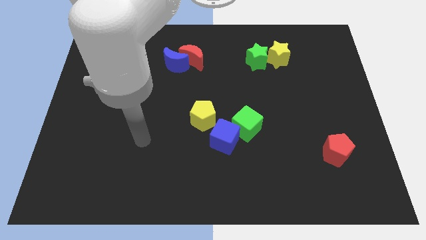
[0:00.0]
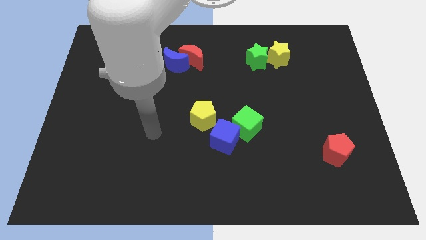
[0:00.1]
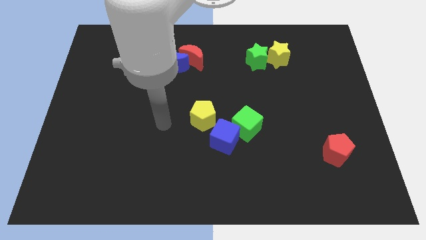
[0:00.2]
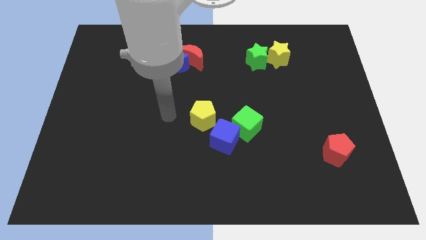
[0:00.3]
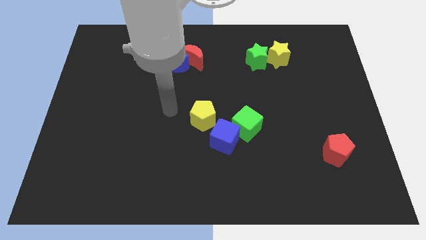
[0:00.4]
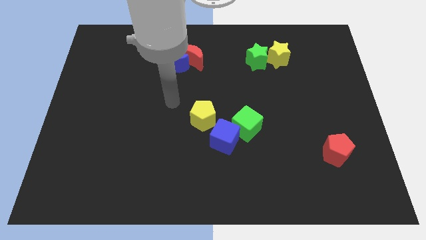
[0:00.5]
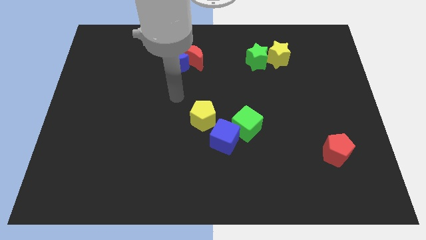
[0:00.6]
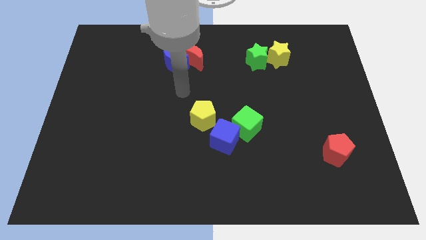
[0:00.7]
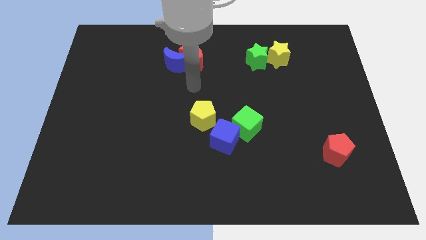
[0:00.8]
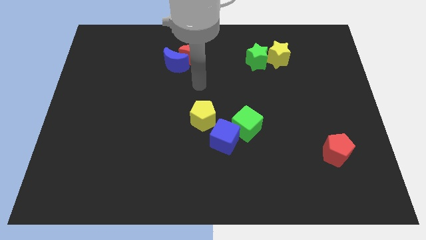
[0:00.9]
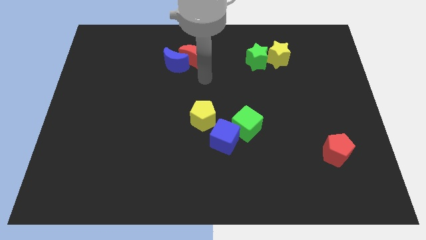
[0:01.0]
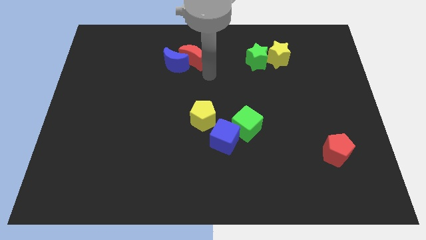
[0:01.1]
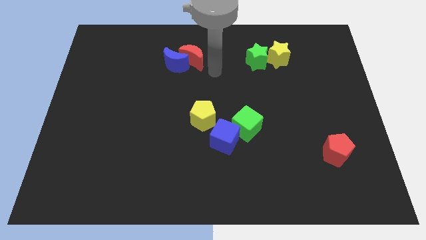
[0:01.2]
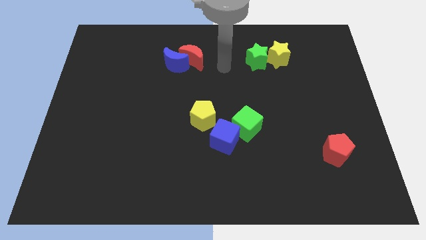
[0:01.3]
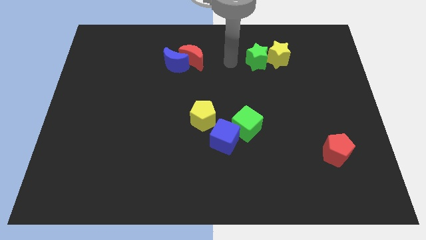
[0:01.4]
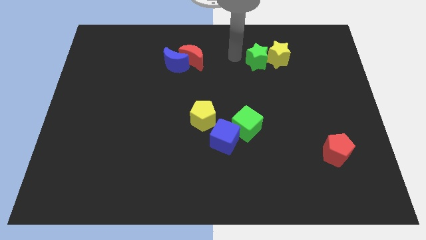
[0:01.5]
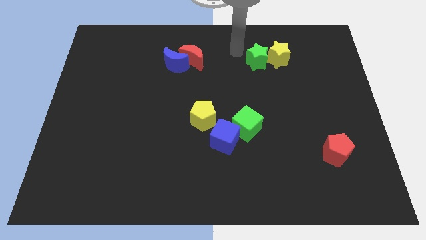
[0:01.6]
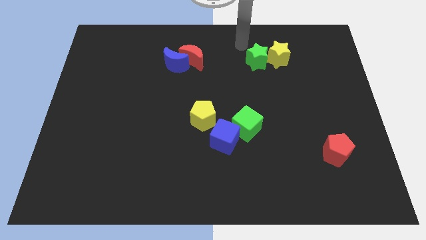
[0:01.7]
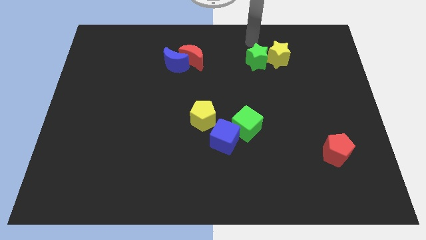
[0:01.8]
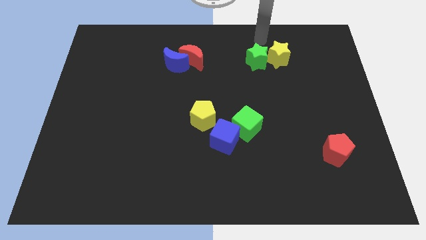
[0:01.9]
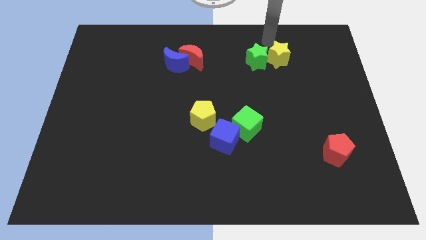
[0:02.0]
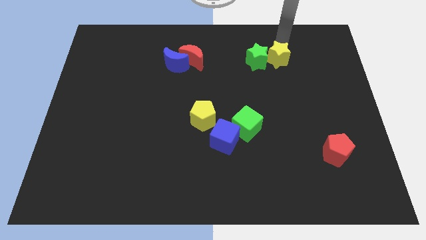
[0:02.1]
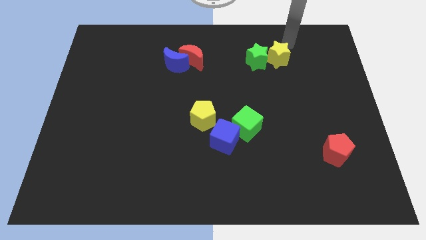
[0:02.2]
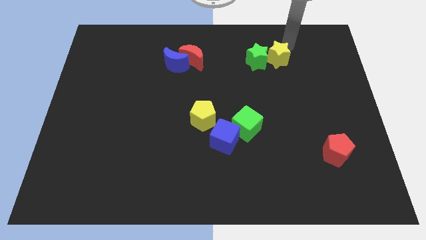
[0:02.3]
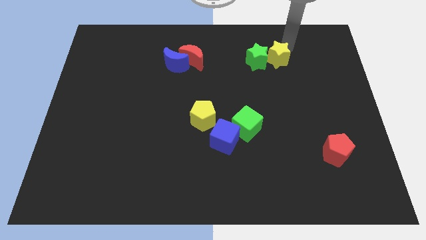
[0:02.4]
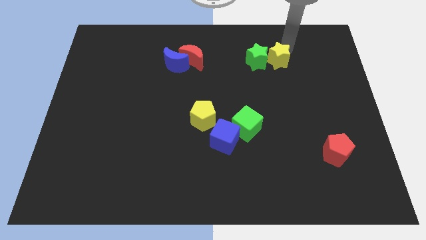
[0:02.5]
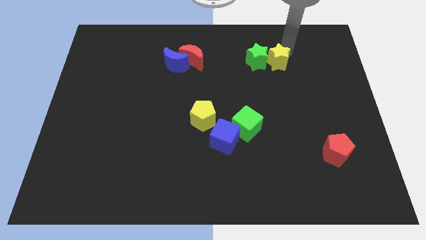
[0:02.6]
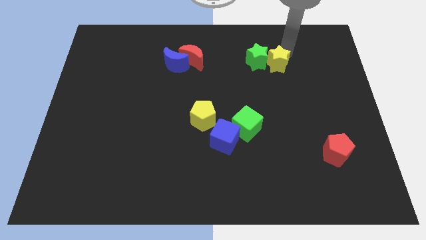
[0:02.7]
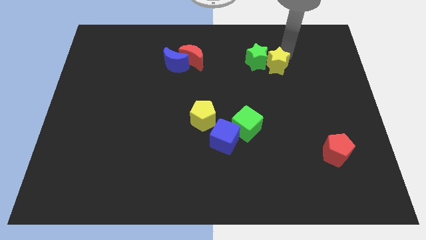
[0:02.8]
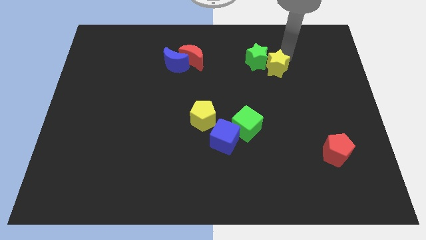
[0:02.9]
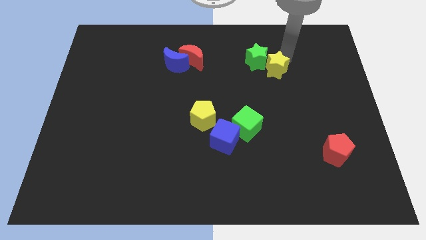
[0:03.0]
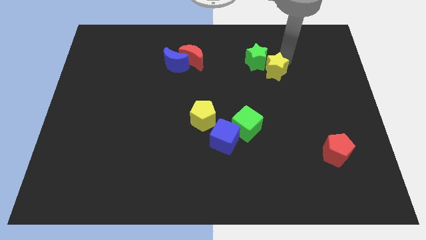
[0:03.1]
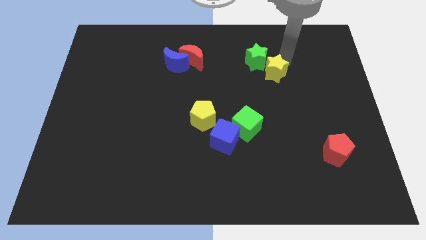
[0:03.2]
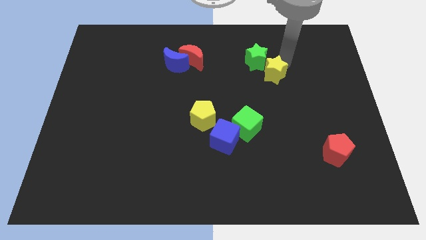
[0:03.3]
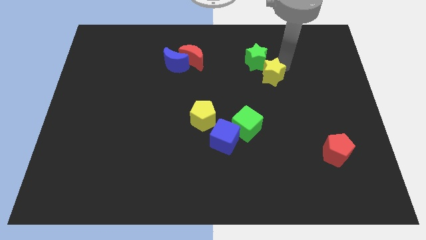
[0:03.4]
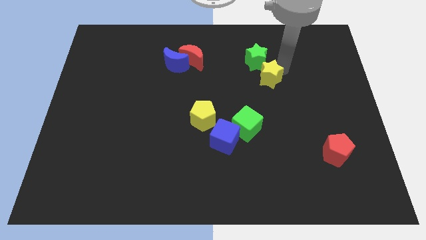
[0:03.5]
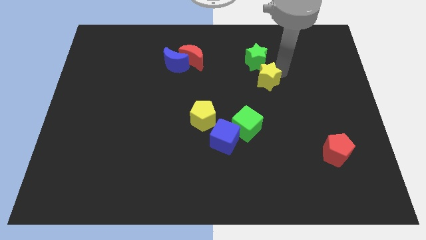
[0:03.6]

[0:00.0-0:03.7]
push the yellow star somewhat diagonally downwards and to the left

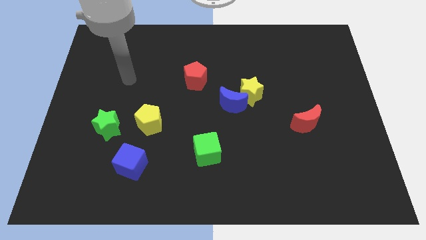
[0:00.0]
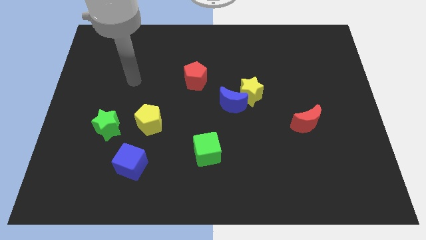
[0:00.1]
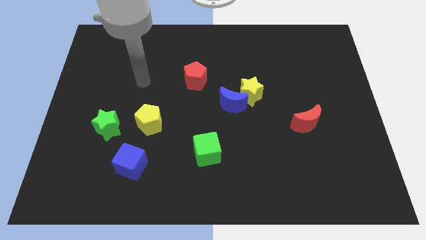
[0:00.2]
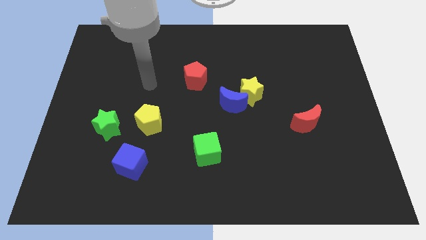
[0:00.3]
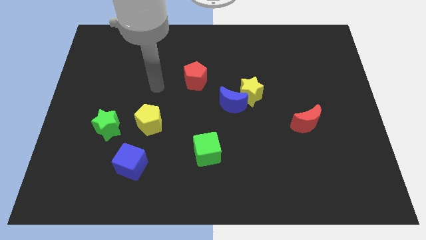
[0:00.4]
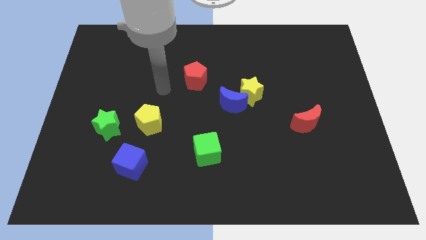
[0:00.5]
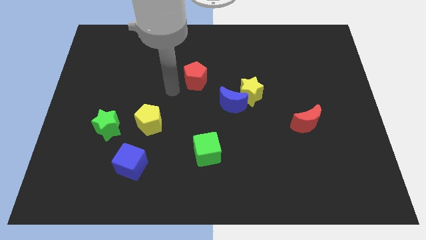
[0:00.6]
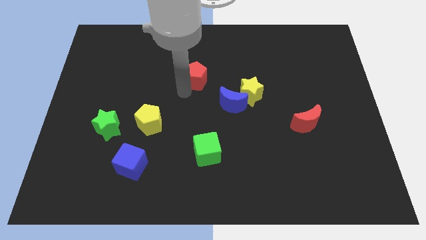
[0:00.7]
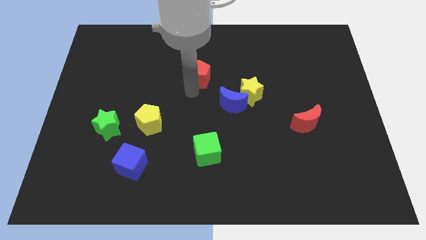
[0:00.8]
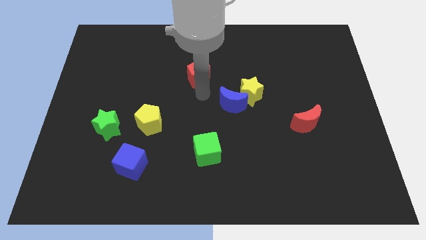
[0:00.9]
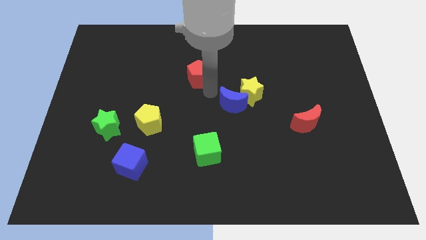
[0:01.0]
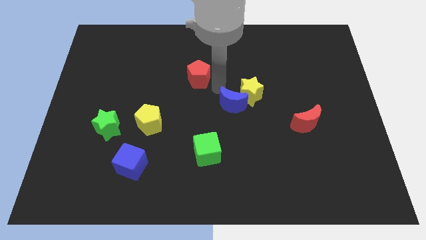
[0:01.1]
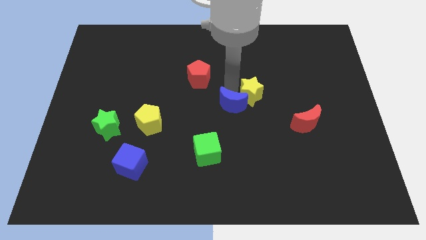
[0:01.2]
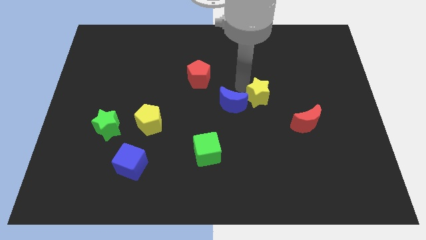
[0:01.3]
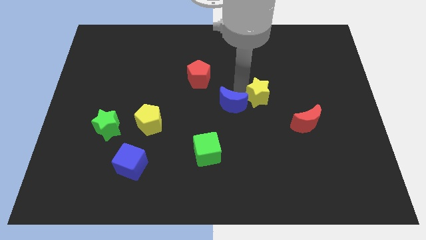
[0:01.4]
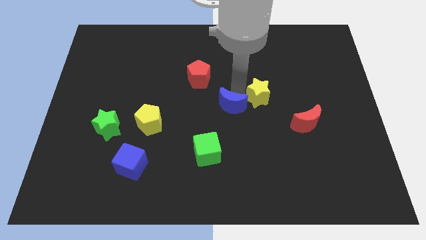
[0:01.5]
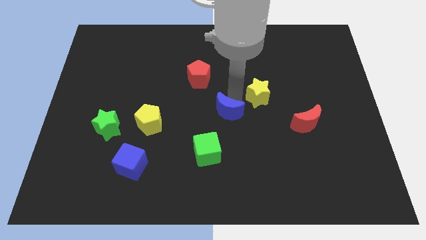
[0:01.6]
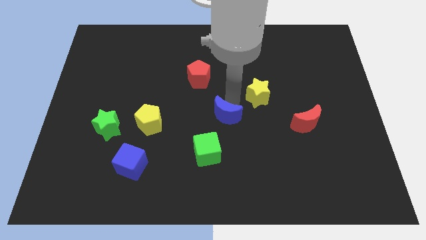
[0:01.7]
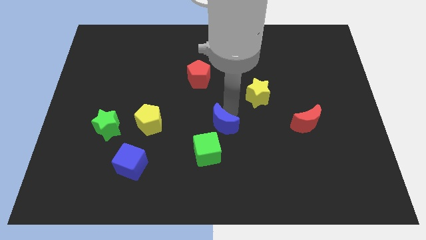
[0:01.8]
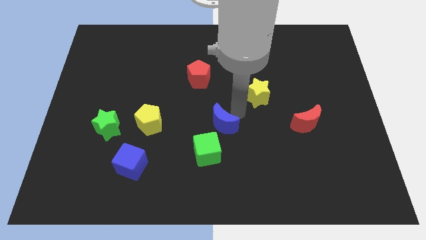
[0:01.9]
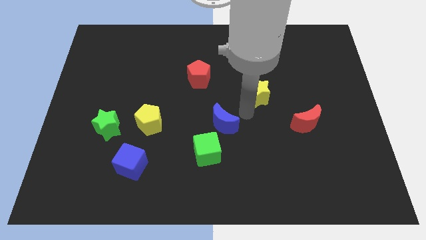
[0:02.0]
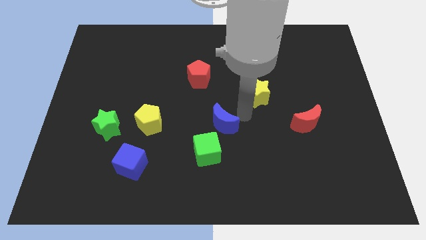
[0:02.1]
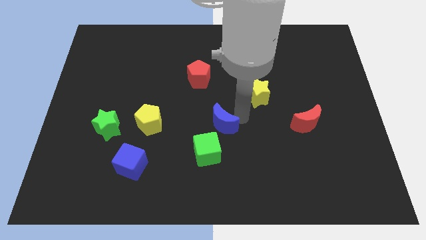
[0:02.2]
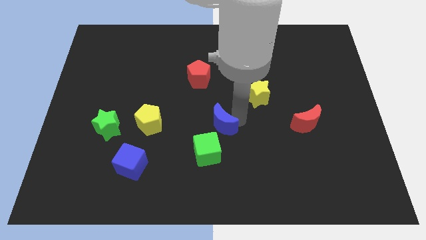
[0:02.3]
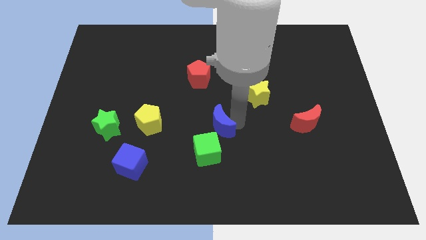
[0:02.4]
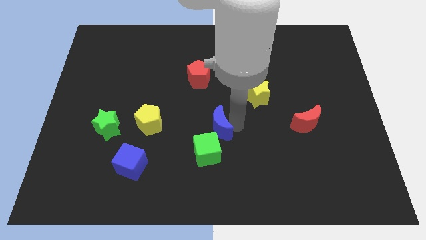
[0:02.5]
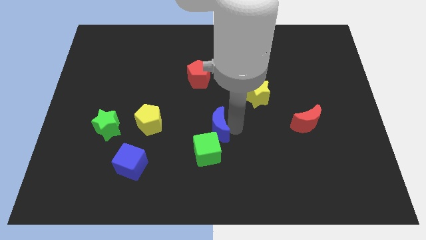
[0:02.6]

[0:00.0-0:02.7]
move the blue moon downwards and left somewhat

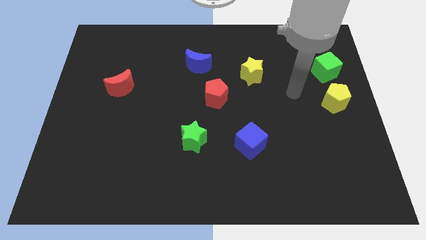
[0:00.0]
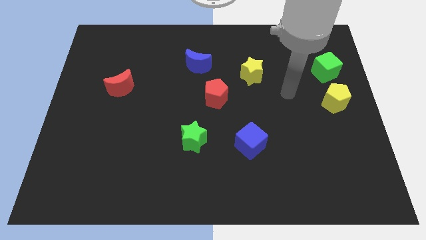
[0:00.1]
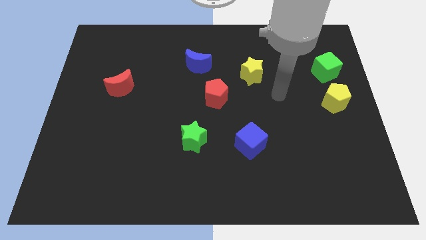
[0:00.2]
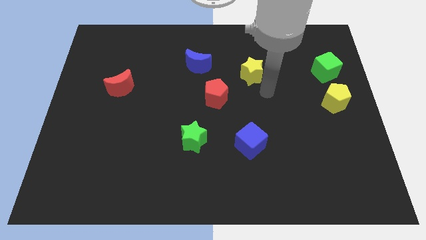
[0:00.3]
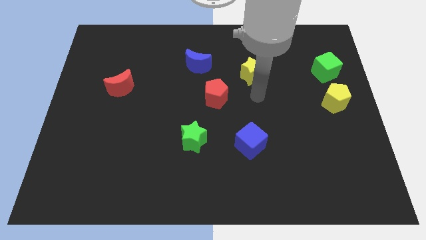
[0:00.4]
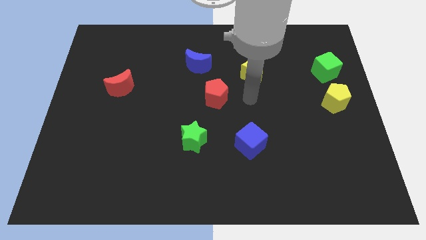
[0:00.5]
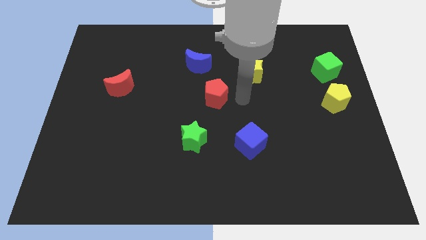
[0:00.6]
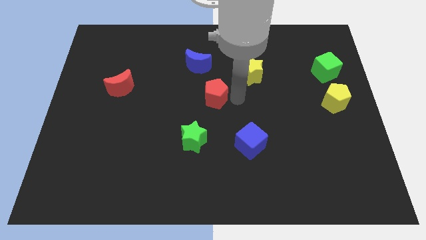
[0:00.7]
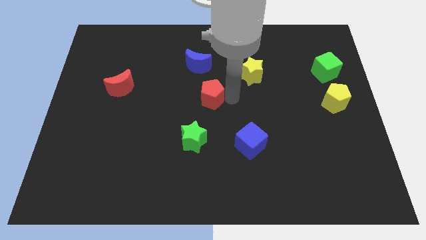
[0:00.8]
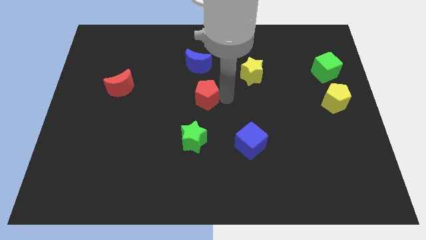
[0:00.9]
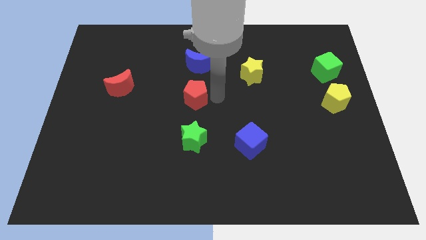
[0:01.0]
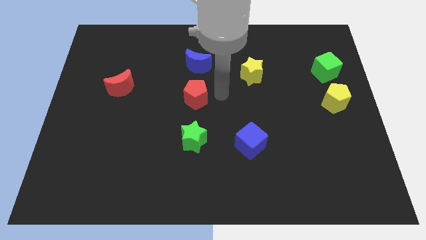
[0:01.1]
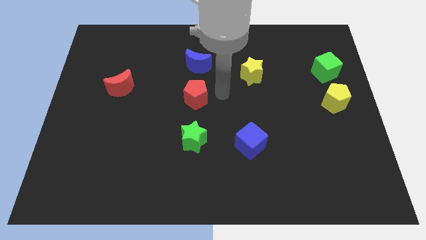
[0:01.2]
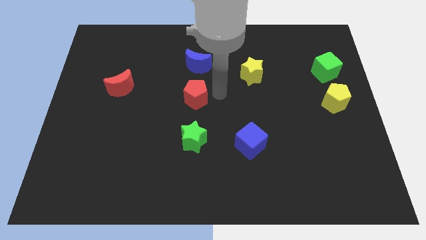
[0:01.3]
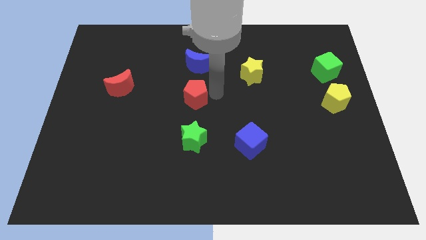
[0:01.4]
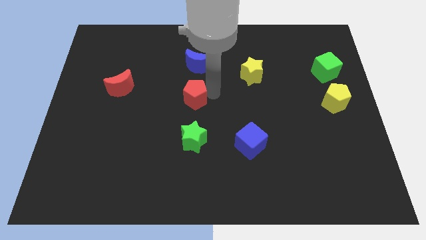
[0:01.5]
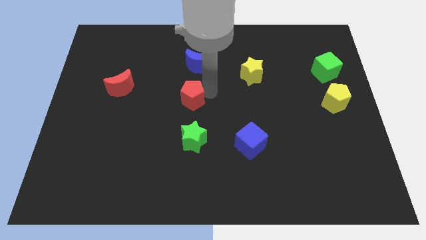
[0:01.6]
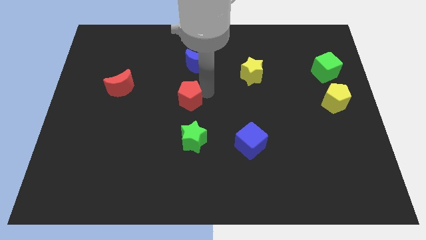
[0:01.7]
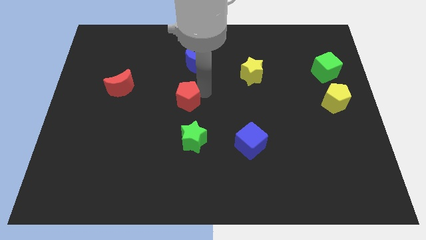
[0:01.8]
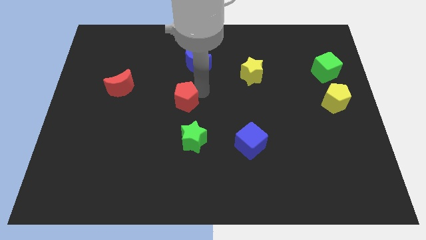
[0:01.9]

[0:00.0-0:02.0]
slide the red pentagon left a little
